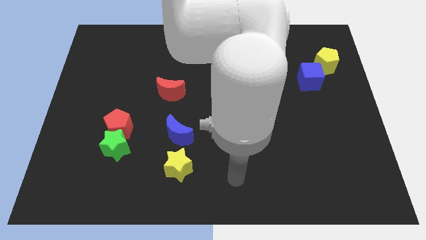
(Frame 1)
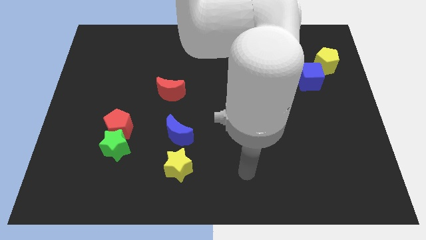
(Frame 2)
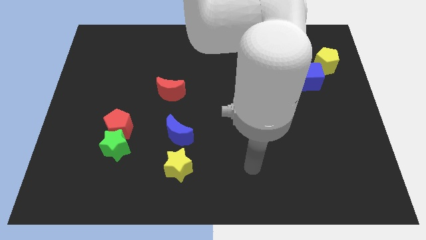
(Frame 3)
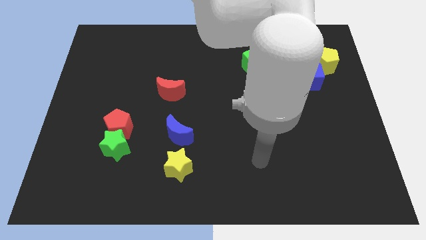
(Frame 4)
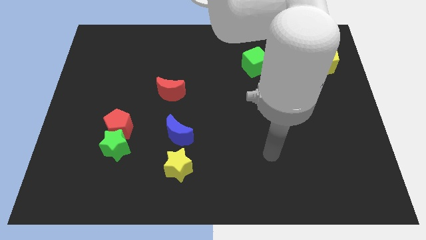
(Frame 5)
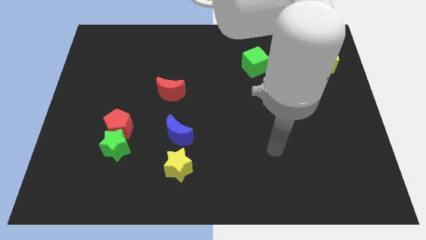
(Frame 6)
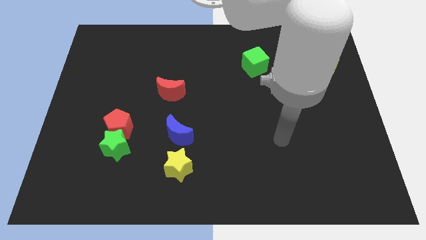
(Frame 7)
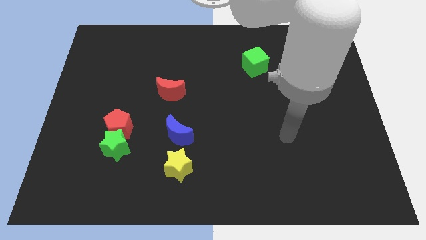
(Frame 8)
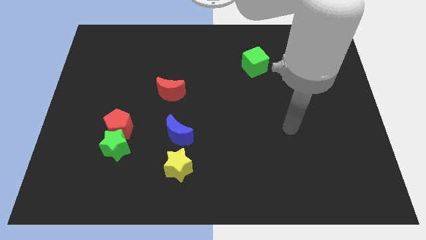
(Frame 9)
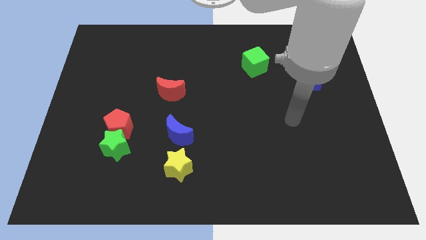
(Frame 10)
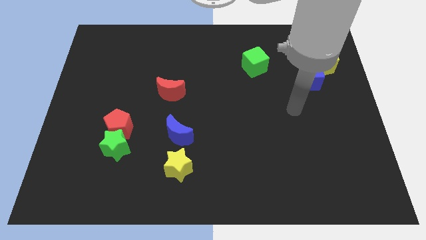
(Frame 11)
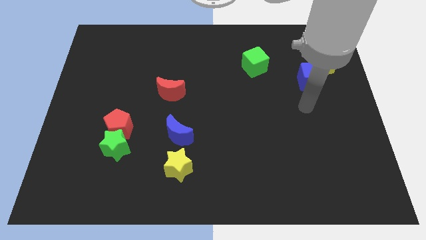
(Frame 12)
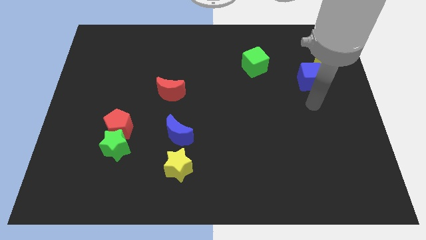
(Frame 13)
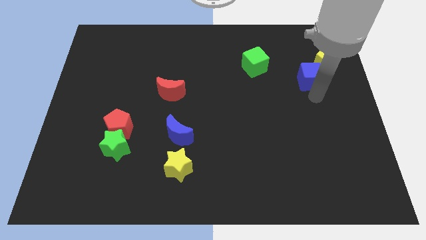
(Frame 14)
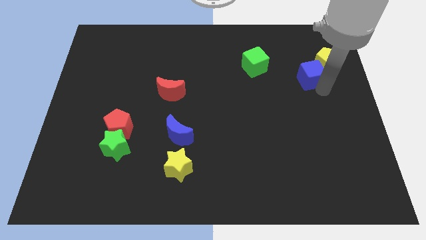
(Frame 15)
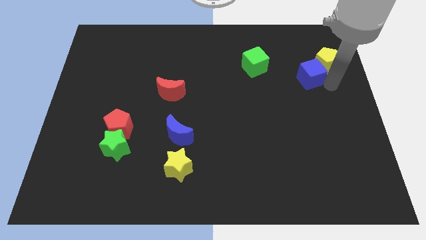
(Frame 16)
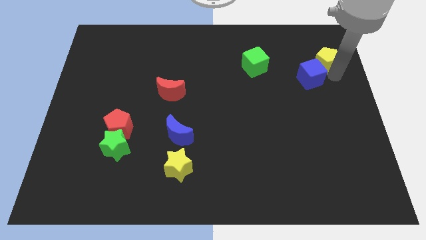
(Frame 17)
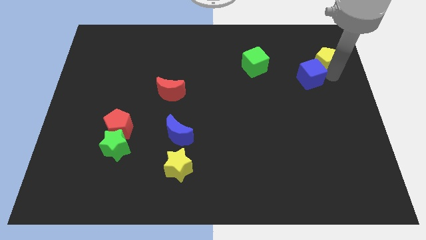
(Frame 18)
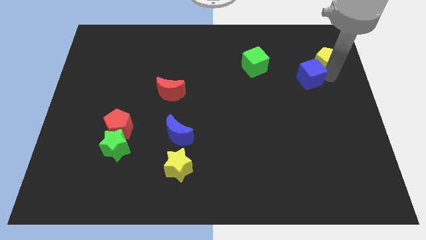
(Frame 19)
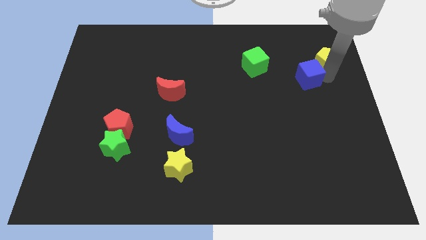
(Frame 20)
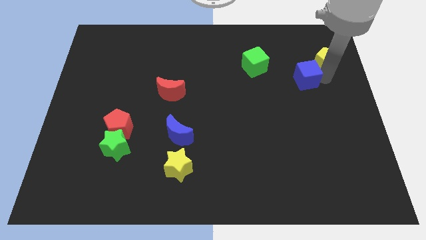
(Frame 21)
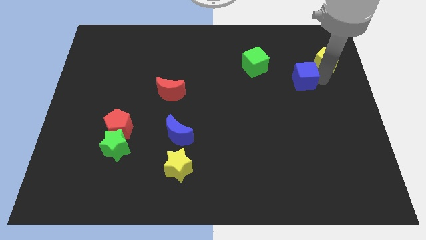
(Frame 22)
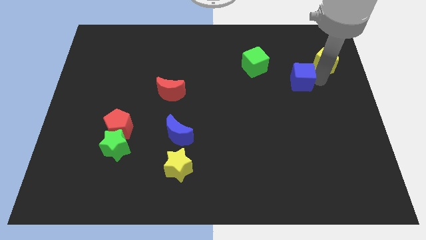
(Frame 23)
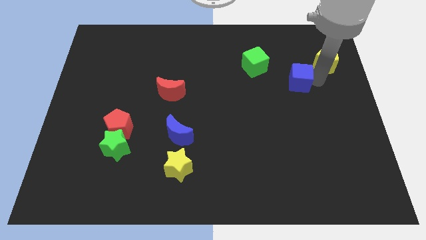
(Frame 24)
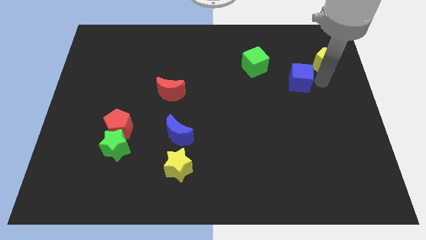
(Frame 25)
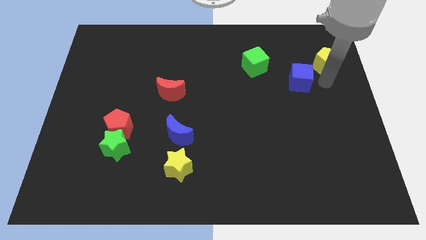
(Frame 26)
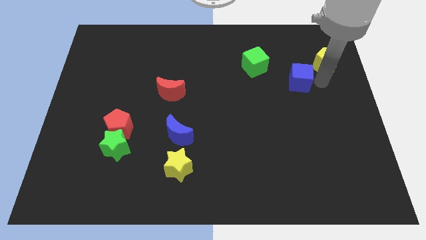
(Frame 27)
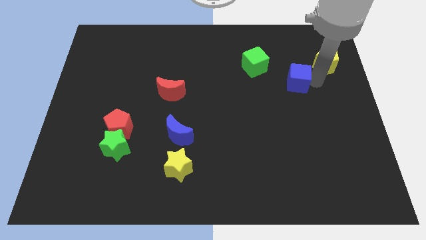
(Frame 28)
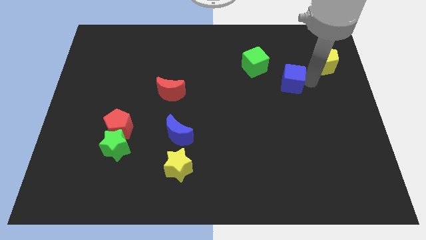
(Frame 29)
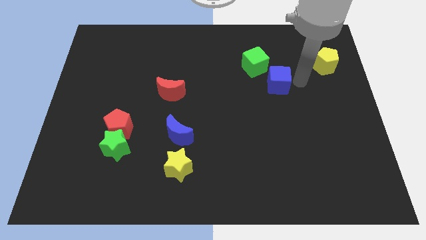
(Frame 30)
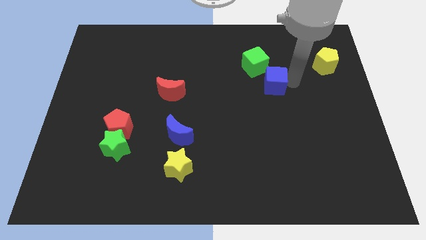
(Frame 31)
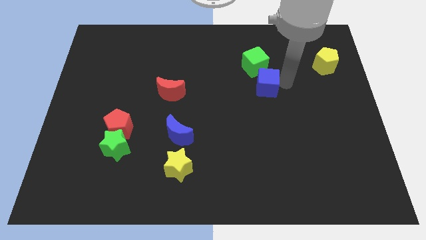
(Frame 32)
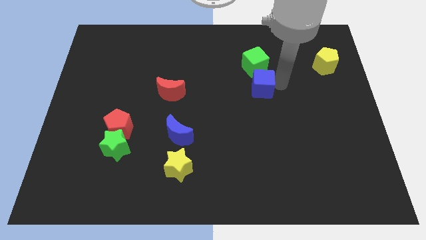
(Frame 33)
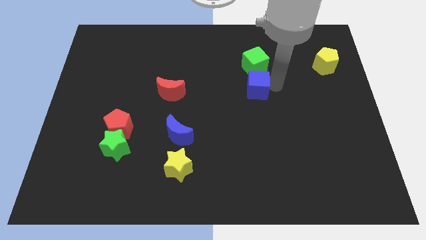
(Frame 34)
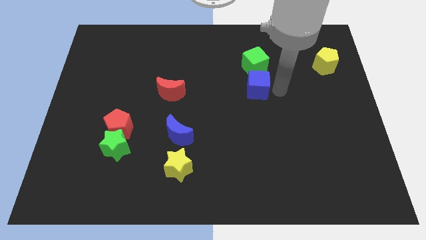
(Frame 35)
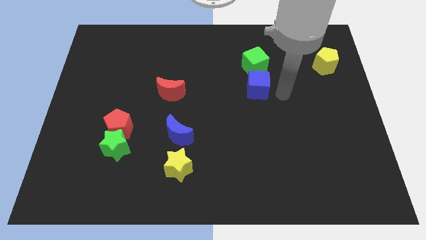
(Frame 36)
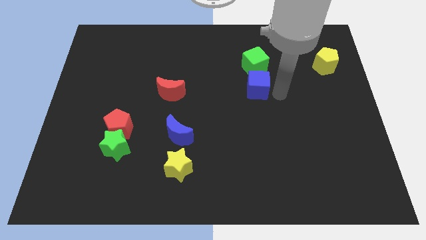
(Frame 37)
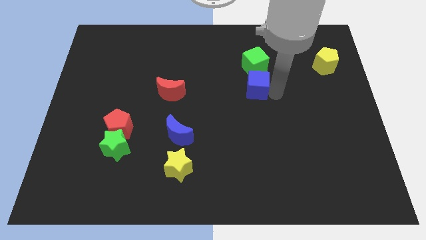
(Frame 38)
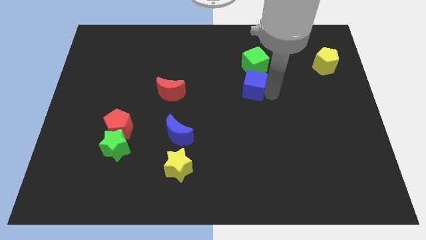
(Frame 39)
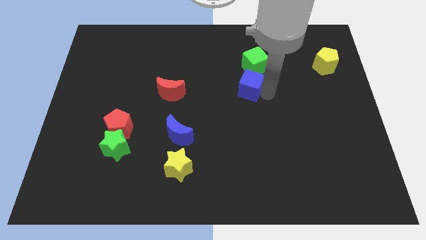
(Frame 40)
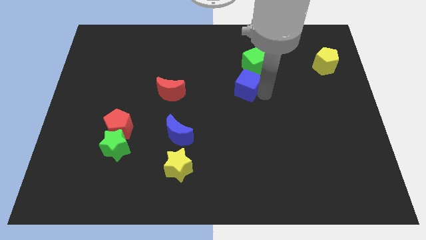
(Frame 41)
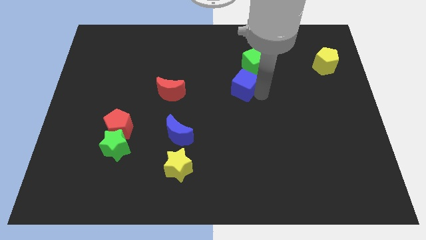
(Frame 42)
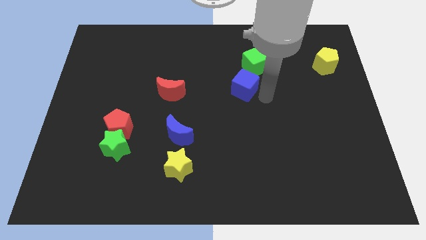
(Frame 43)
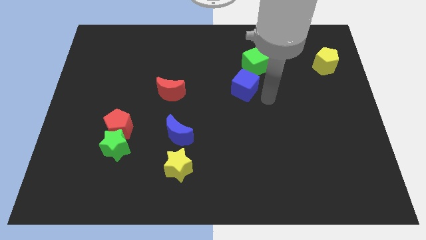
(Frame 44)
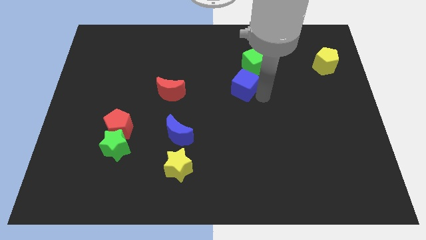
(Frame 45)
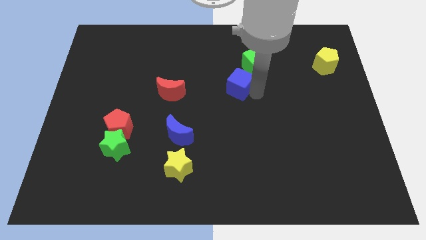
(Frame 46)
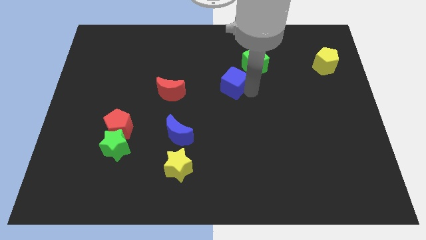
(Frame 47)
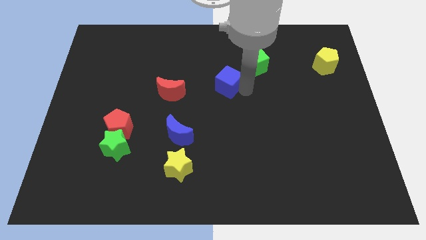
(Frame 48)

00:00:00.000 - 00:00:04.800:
slide the blue cube left

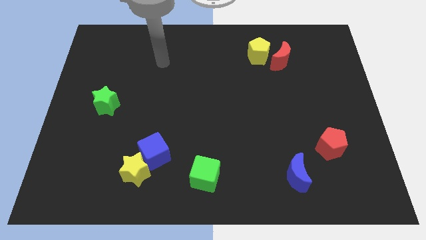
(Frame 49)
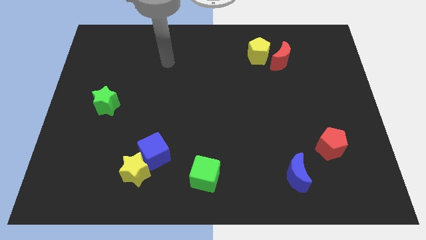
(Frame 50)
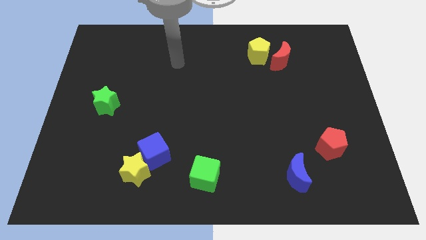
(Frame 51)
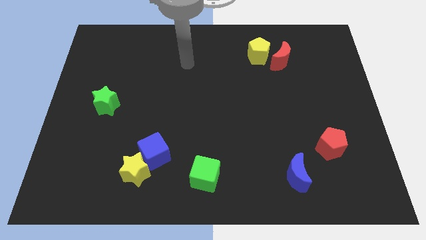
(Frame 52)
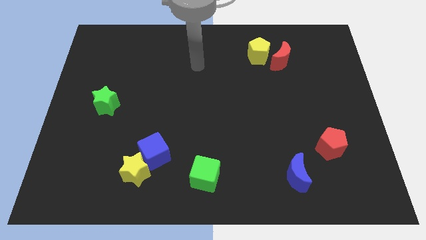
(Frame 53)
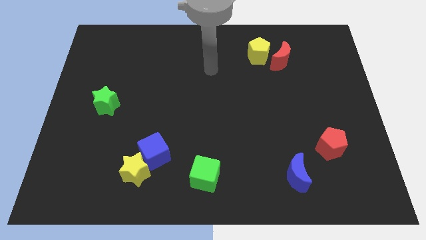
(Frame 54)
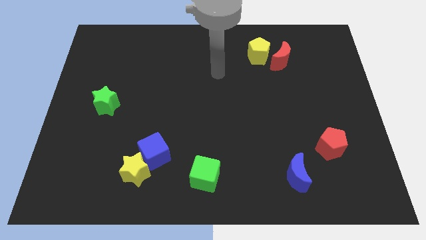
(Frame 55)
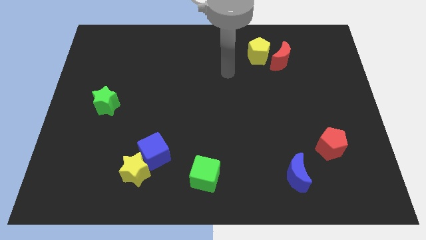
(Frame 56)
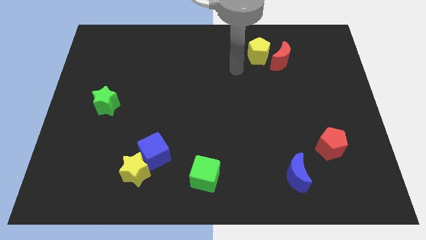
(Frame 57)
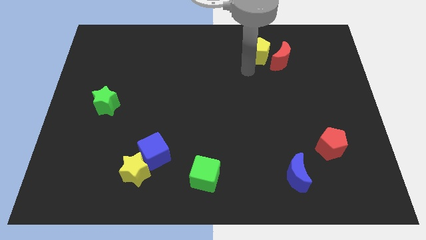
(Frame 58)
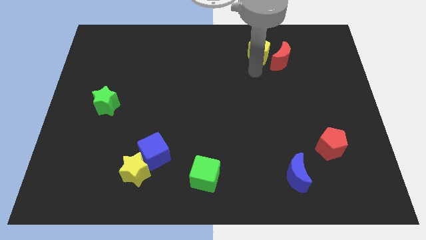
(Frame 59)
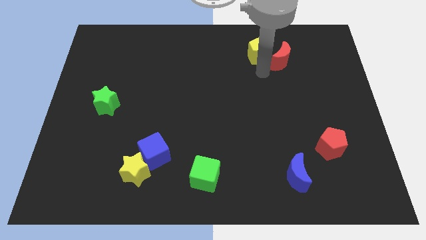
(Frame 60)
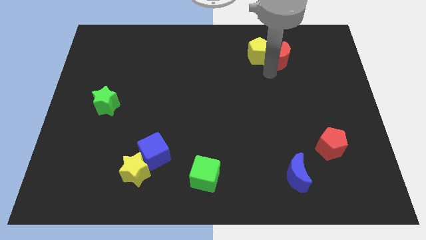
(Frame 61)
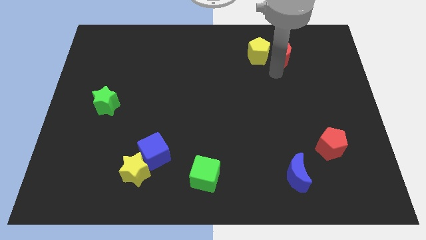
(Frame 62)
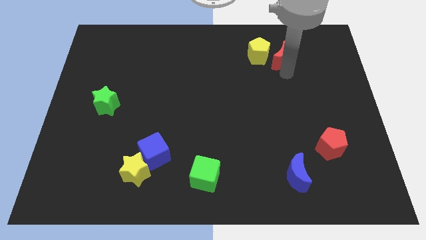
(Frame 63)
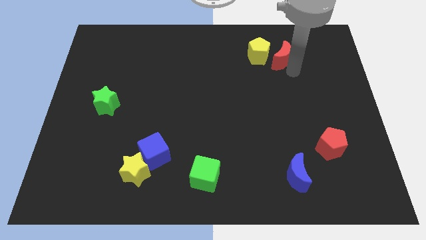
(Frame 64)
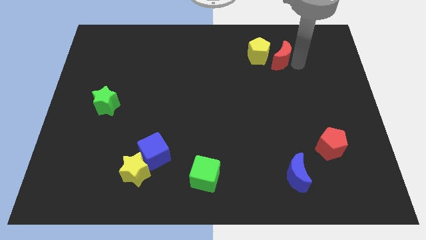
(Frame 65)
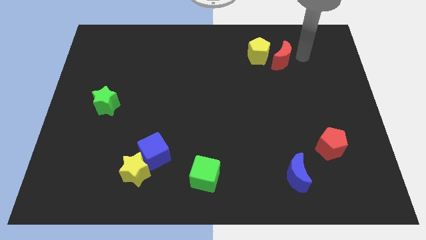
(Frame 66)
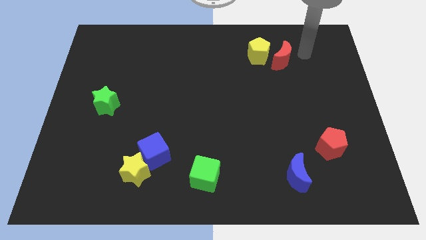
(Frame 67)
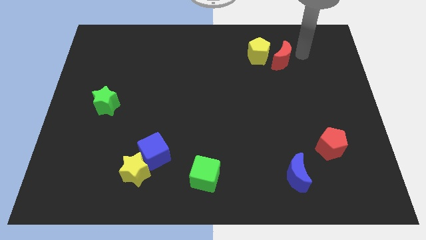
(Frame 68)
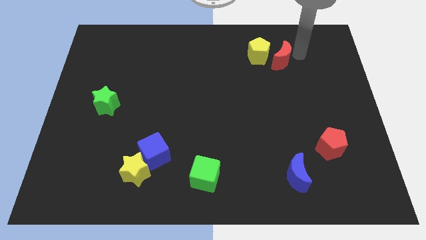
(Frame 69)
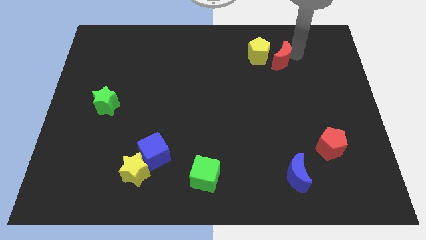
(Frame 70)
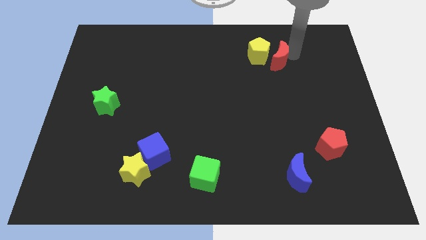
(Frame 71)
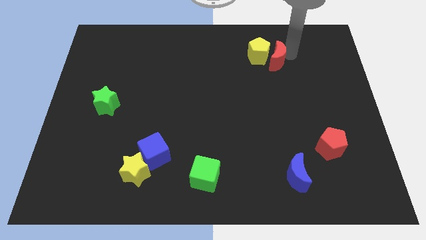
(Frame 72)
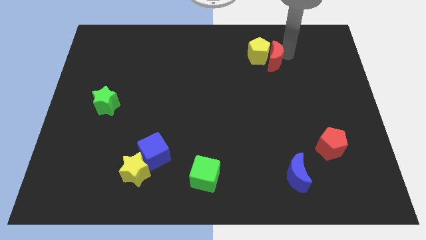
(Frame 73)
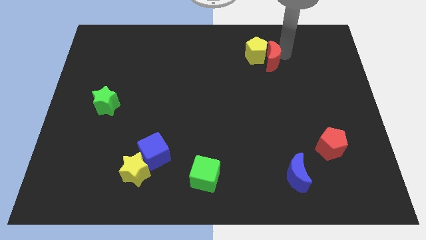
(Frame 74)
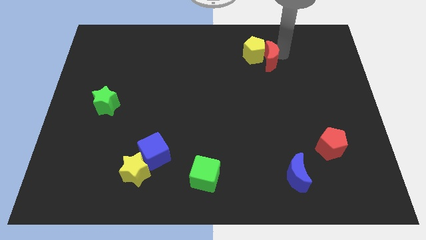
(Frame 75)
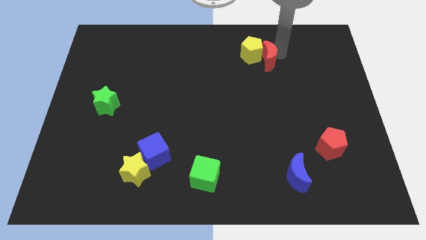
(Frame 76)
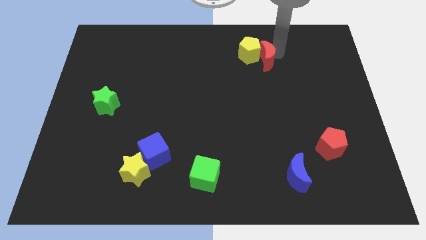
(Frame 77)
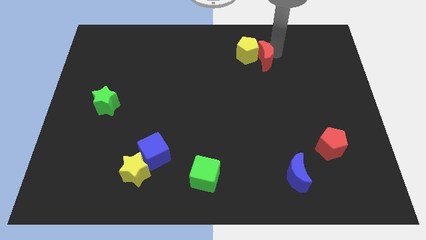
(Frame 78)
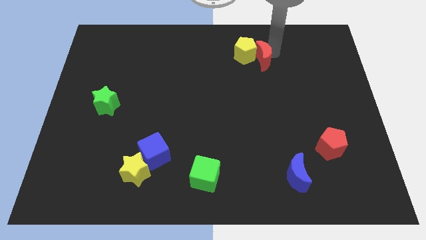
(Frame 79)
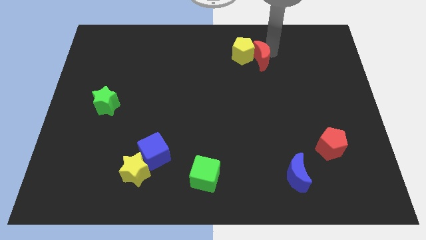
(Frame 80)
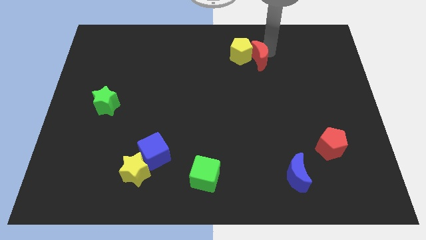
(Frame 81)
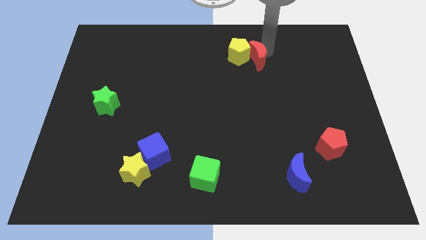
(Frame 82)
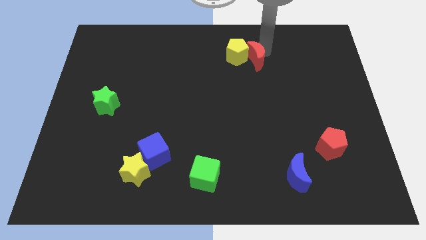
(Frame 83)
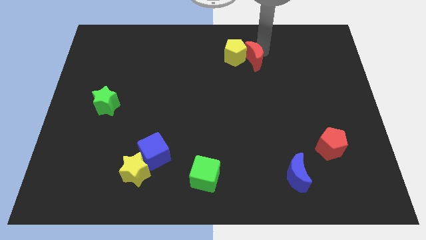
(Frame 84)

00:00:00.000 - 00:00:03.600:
move the red moon to the left a little
